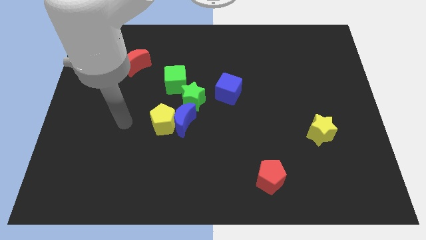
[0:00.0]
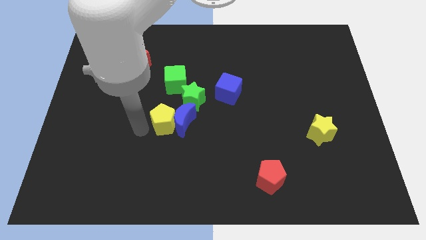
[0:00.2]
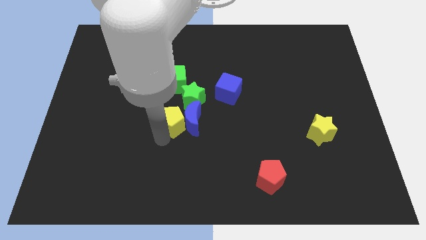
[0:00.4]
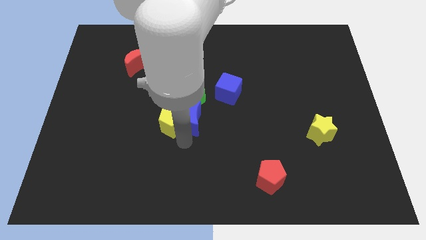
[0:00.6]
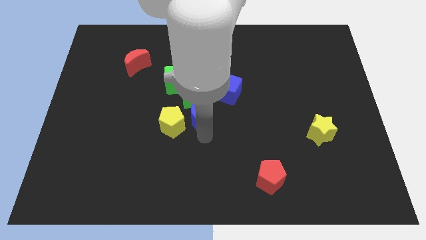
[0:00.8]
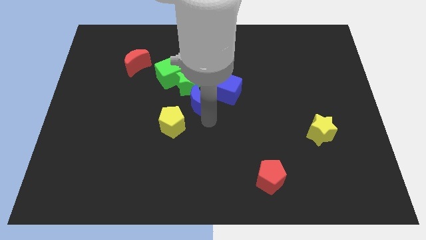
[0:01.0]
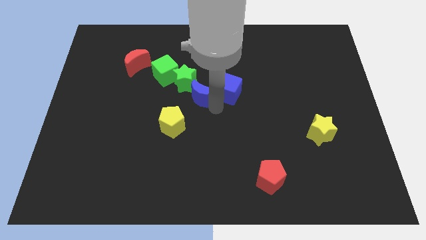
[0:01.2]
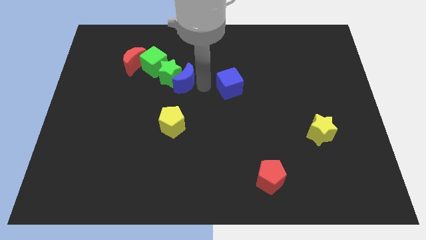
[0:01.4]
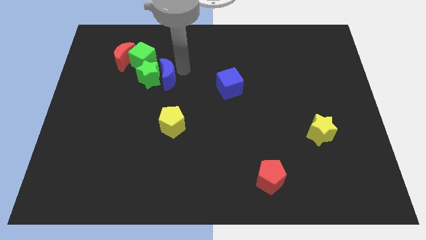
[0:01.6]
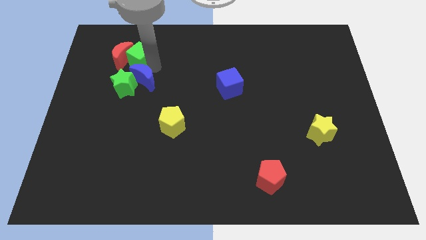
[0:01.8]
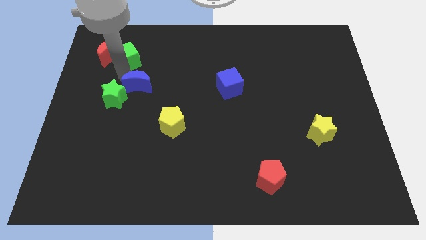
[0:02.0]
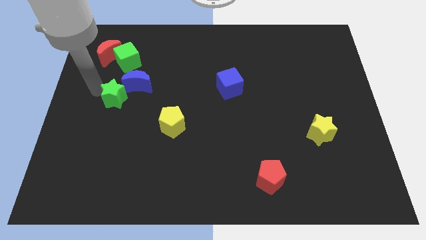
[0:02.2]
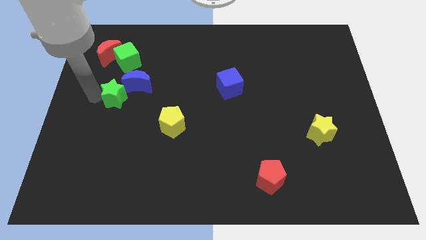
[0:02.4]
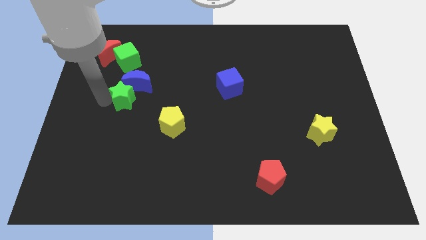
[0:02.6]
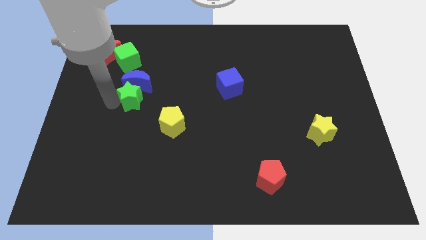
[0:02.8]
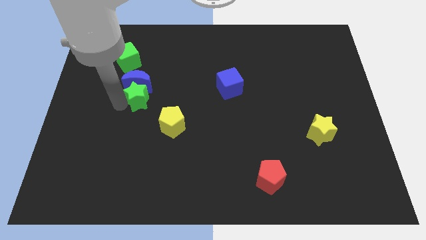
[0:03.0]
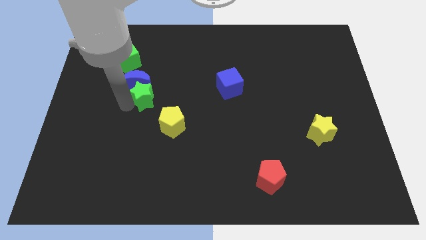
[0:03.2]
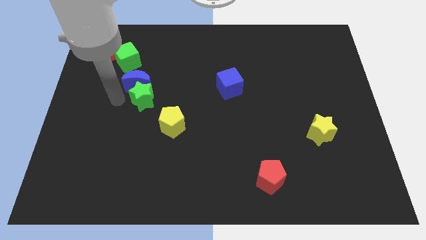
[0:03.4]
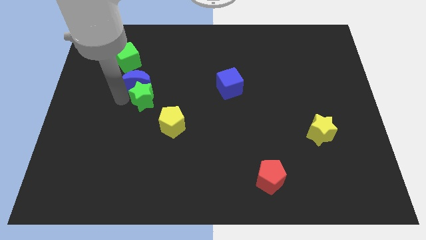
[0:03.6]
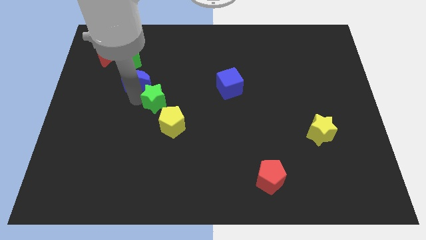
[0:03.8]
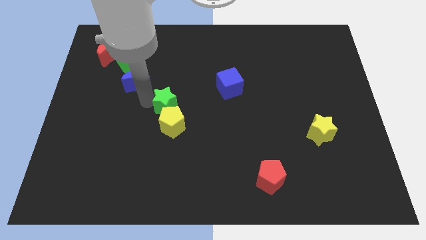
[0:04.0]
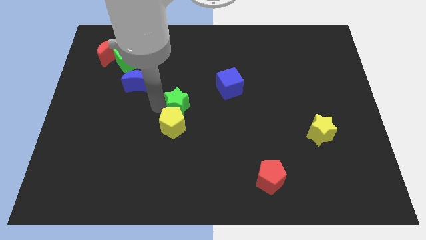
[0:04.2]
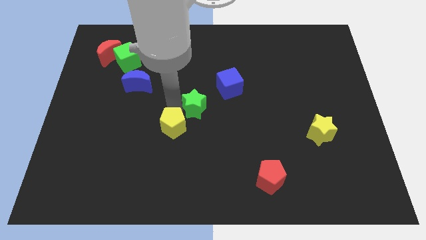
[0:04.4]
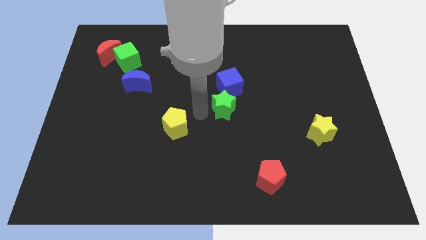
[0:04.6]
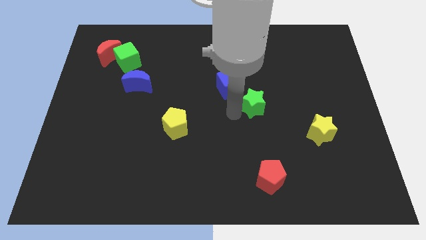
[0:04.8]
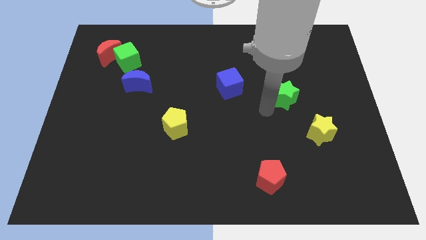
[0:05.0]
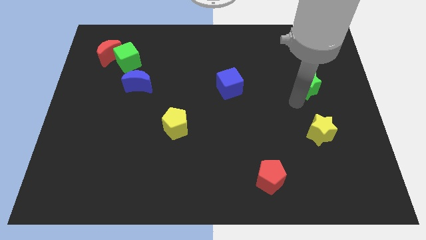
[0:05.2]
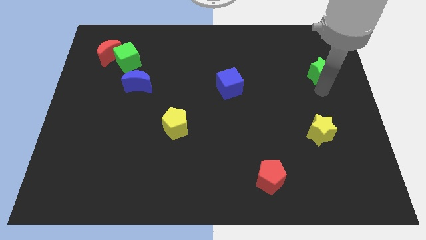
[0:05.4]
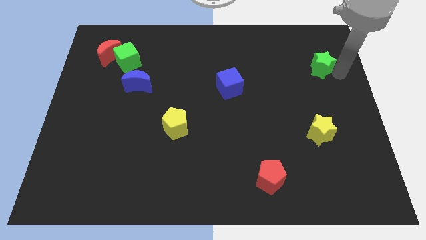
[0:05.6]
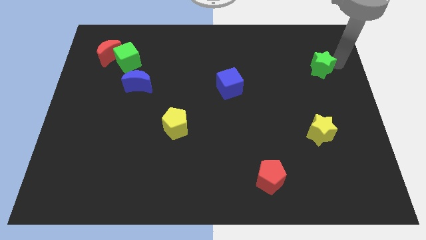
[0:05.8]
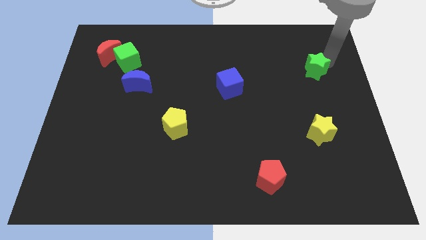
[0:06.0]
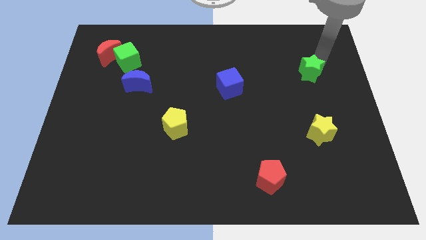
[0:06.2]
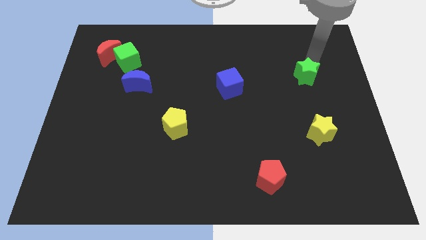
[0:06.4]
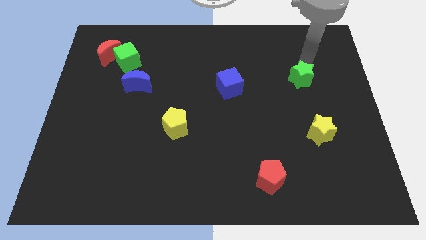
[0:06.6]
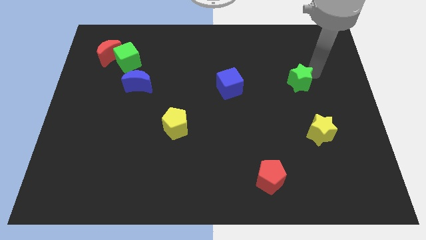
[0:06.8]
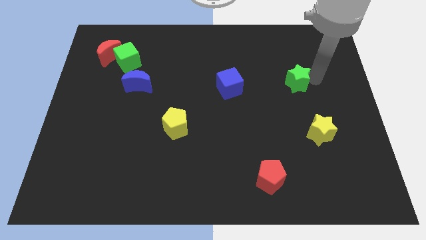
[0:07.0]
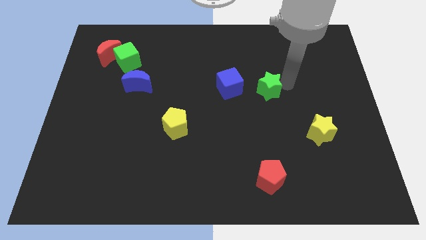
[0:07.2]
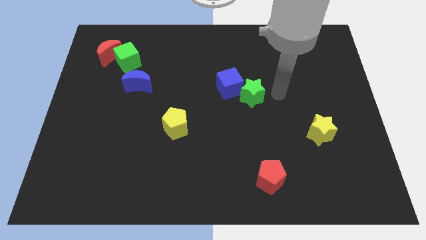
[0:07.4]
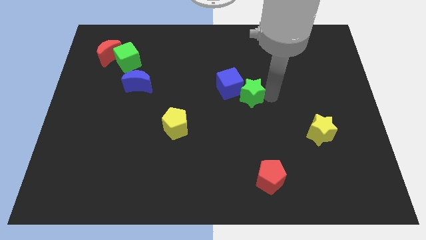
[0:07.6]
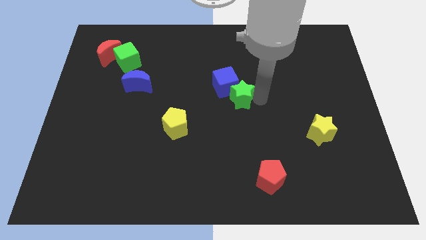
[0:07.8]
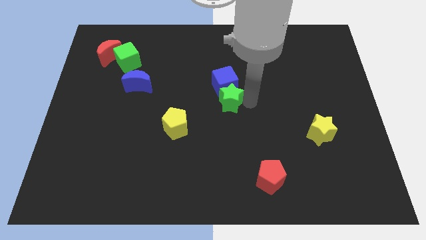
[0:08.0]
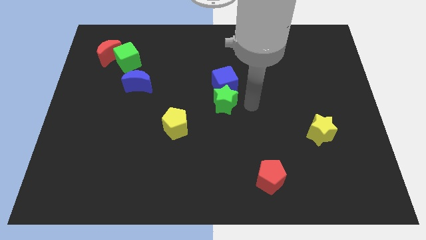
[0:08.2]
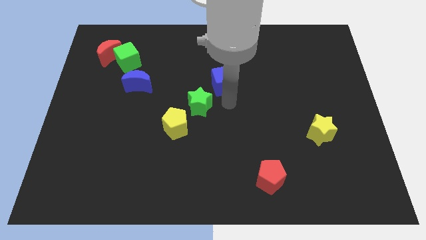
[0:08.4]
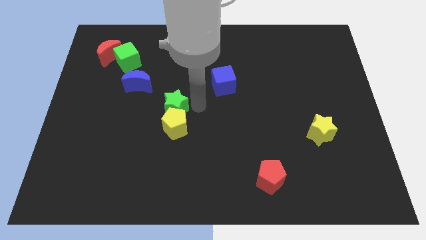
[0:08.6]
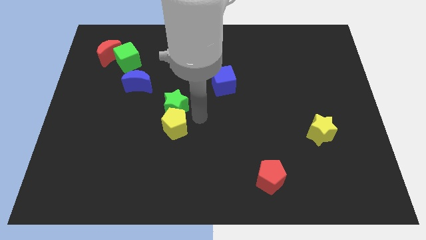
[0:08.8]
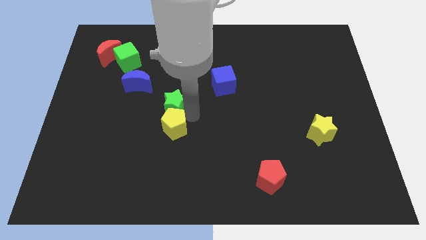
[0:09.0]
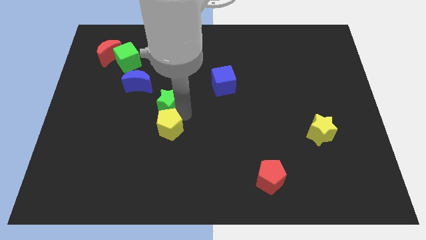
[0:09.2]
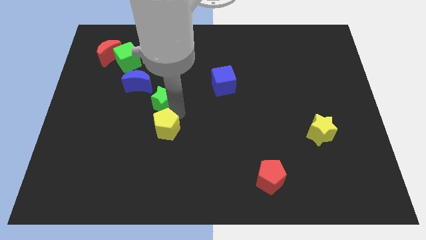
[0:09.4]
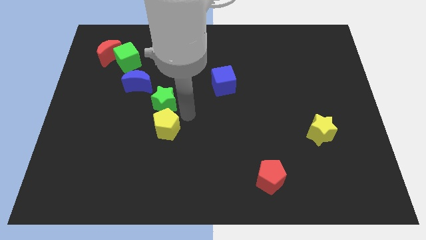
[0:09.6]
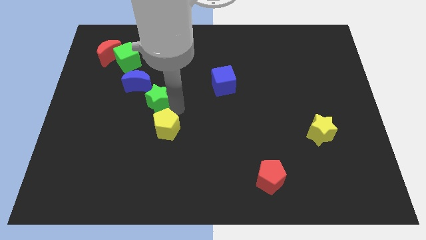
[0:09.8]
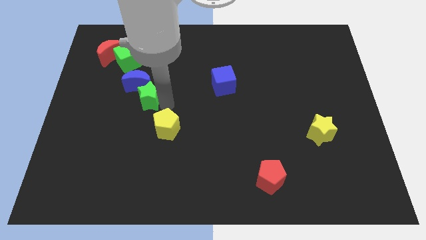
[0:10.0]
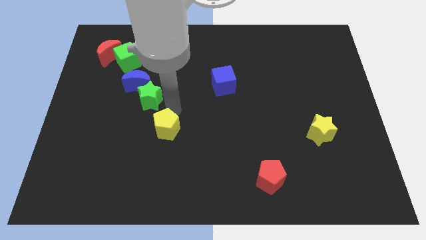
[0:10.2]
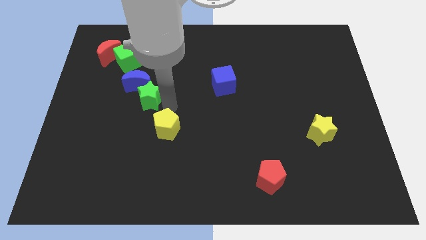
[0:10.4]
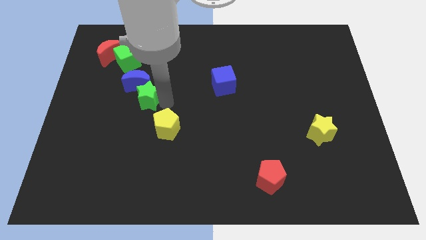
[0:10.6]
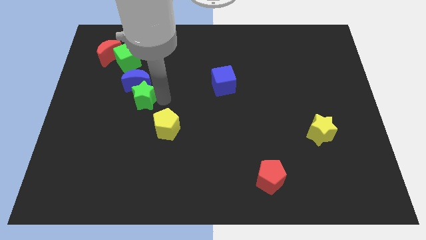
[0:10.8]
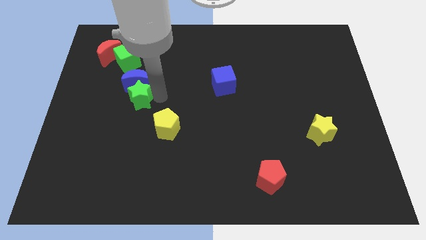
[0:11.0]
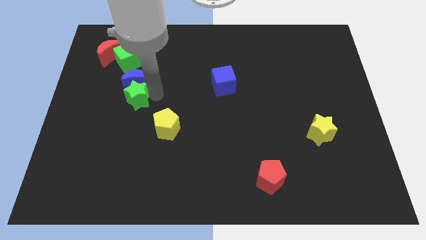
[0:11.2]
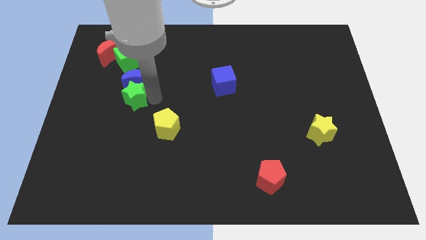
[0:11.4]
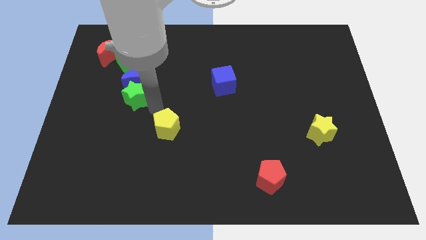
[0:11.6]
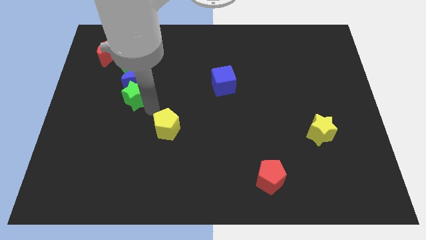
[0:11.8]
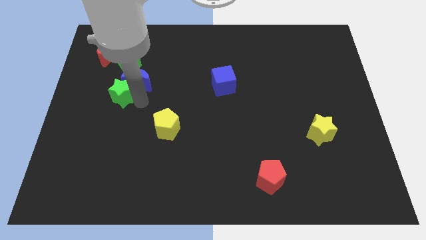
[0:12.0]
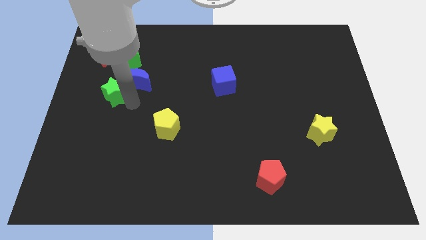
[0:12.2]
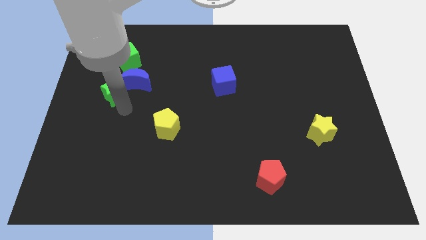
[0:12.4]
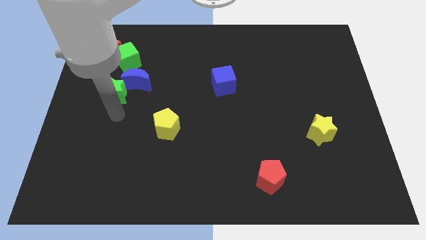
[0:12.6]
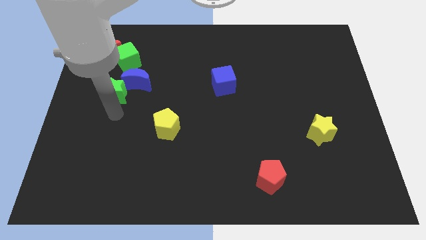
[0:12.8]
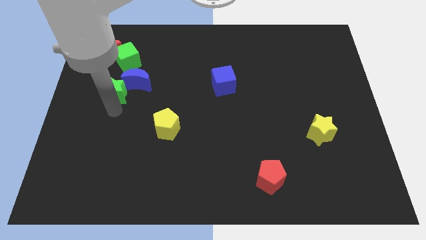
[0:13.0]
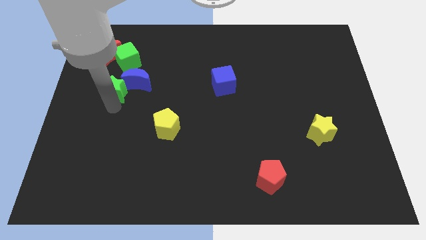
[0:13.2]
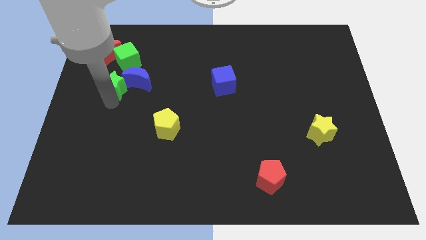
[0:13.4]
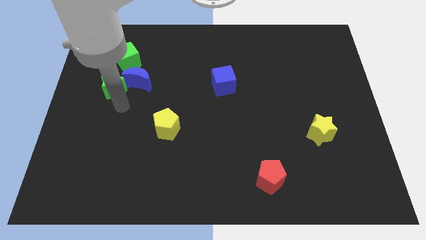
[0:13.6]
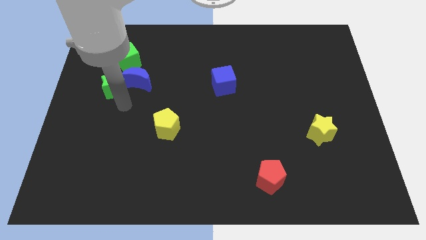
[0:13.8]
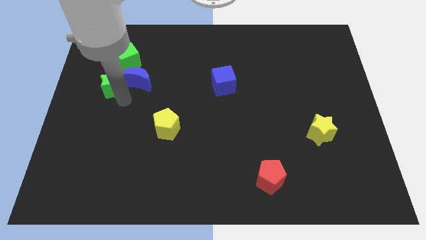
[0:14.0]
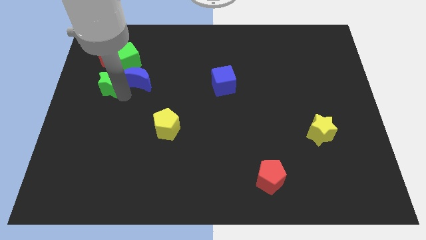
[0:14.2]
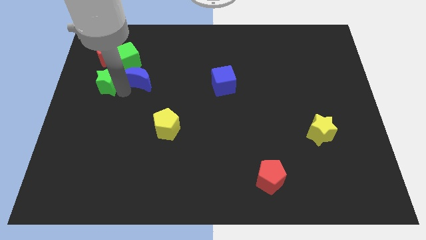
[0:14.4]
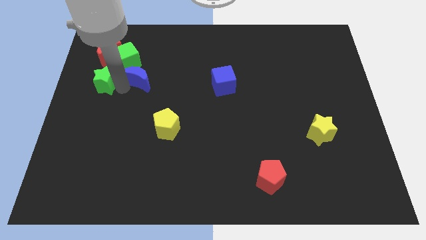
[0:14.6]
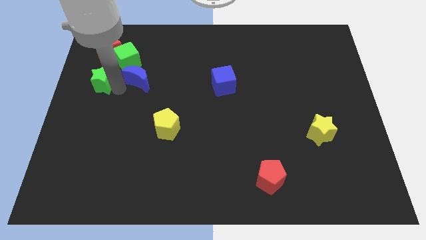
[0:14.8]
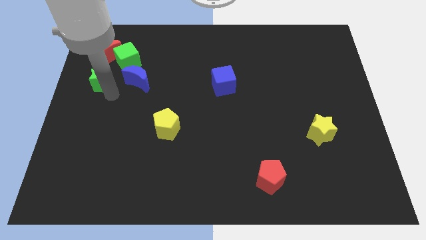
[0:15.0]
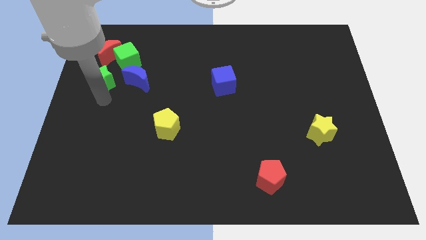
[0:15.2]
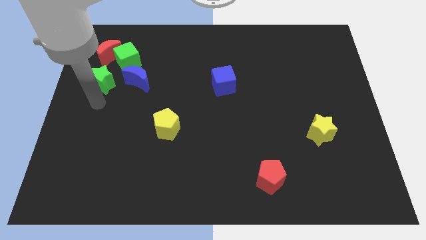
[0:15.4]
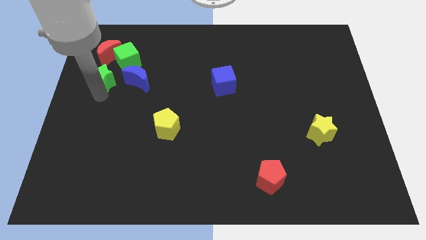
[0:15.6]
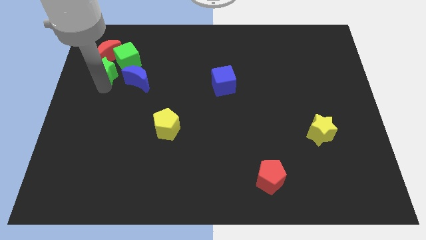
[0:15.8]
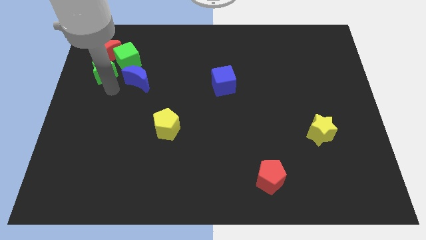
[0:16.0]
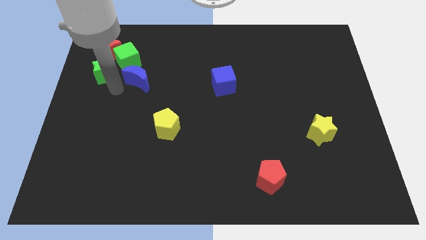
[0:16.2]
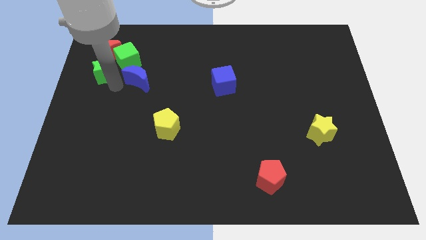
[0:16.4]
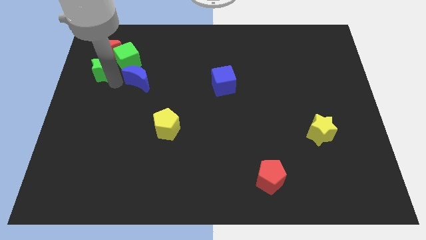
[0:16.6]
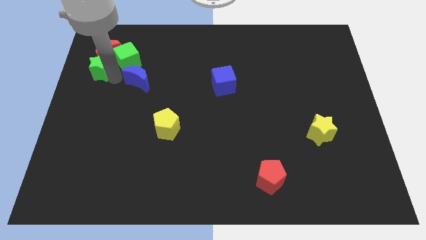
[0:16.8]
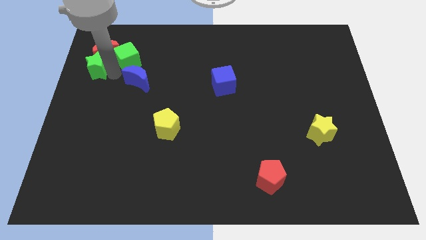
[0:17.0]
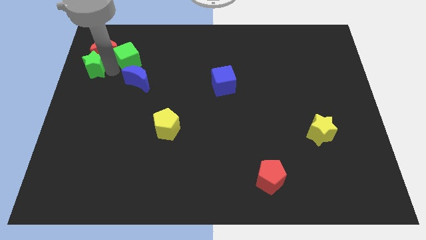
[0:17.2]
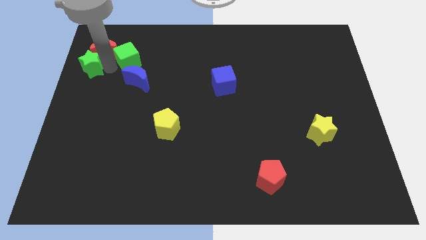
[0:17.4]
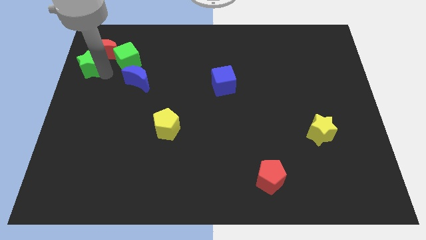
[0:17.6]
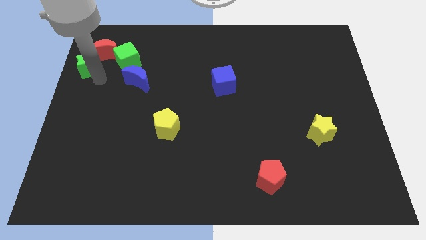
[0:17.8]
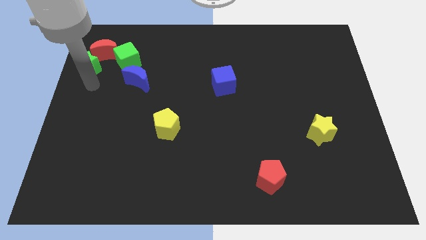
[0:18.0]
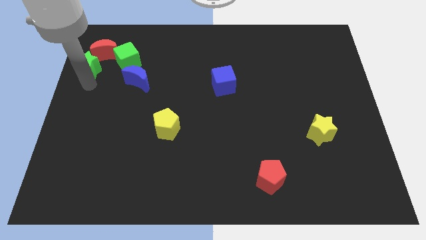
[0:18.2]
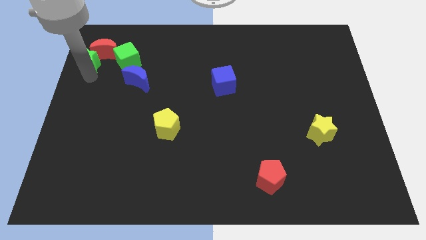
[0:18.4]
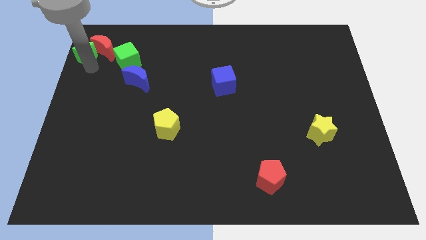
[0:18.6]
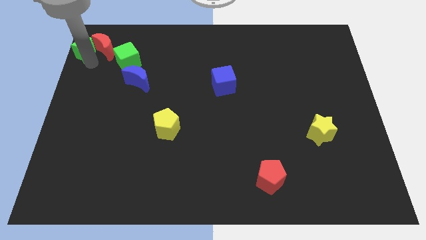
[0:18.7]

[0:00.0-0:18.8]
slide the green star to the upper left corner
